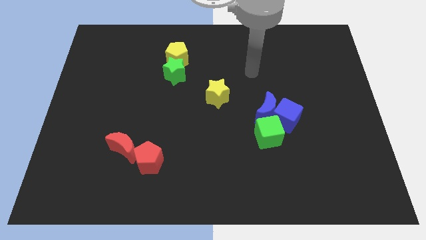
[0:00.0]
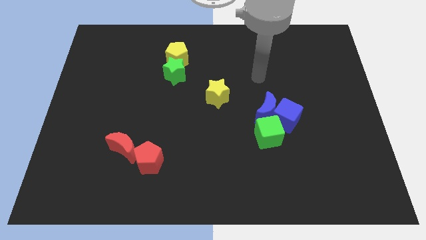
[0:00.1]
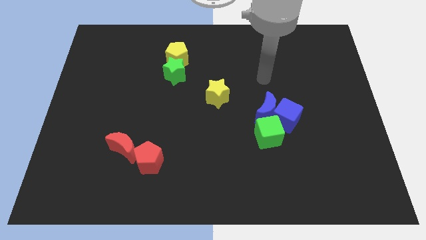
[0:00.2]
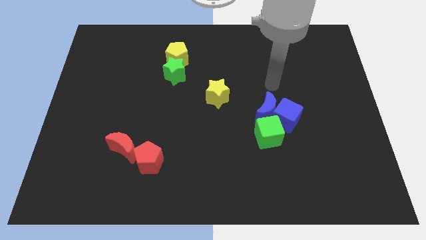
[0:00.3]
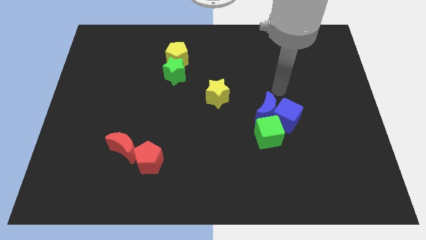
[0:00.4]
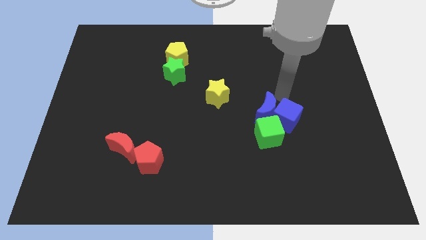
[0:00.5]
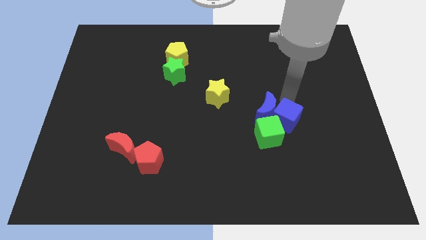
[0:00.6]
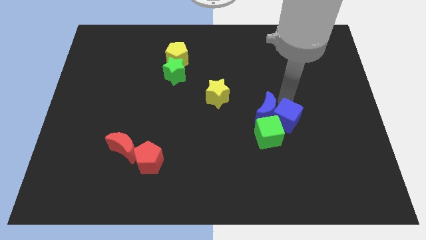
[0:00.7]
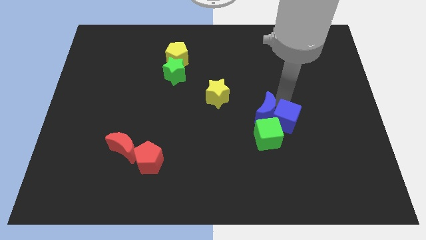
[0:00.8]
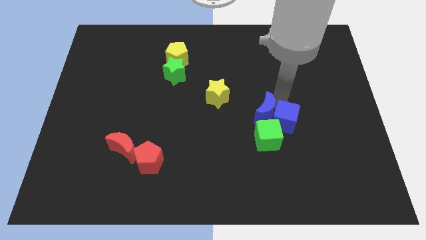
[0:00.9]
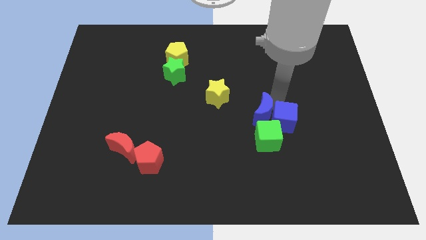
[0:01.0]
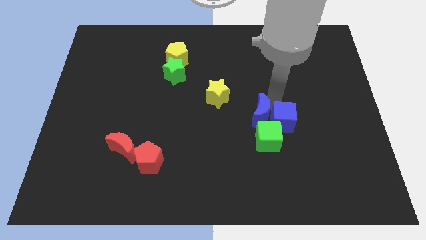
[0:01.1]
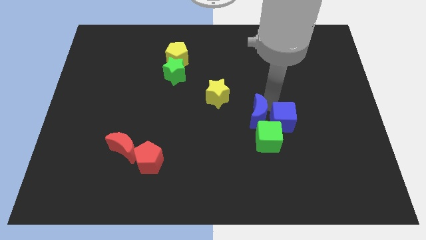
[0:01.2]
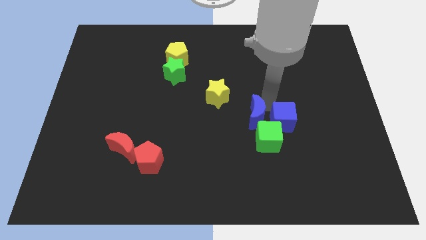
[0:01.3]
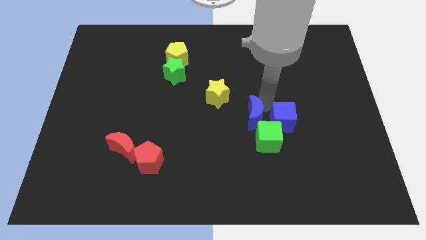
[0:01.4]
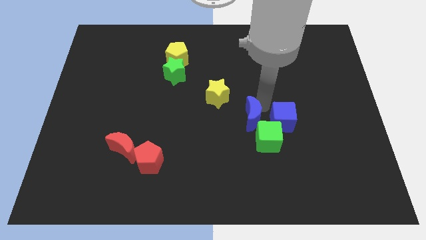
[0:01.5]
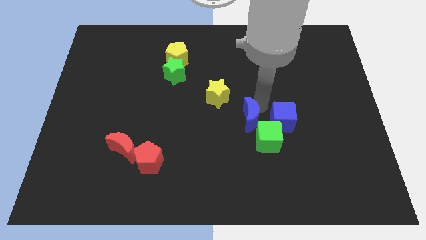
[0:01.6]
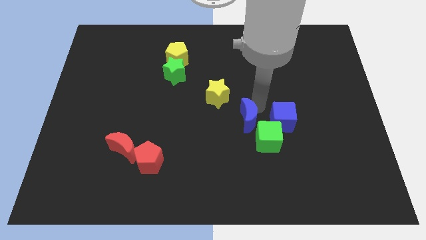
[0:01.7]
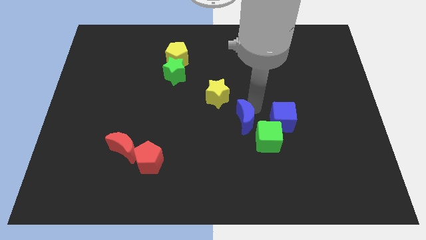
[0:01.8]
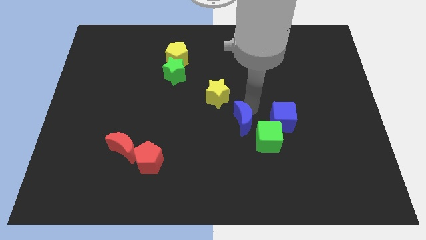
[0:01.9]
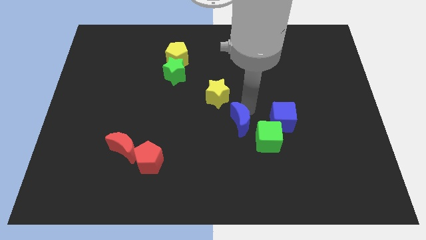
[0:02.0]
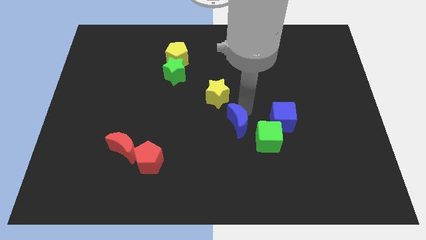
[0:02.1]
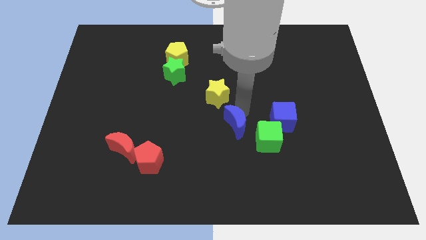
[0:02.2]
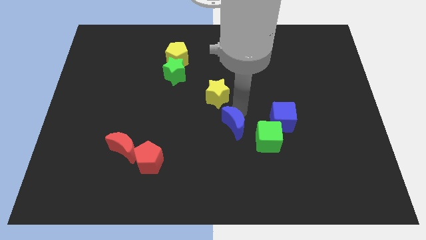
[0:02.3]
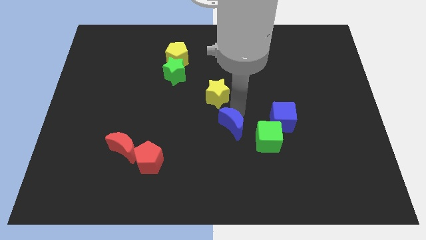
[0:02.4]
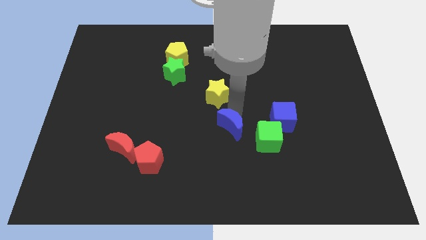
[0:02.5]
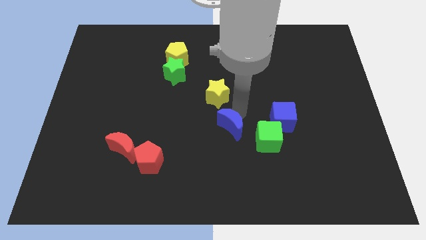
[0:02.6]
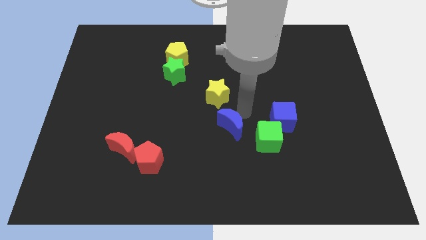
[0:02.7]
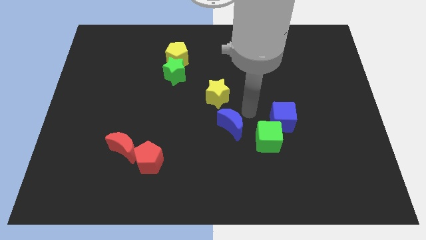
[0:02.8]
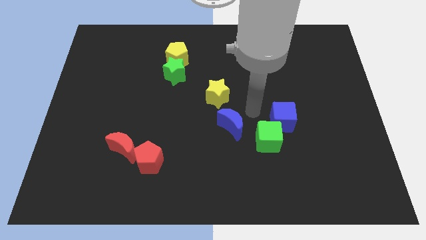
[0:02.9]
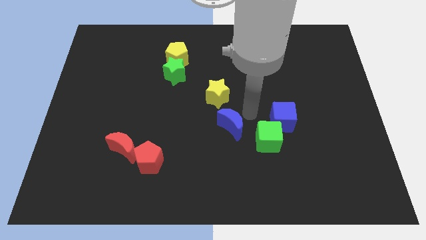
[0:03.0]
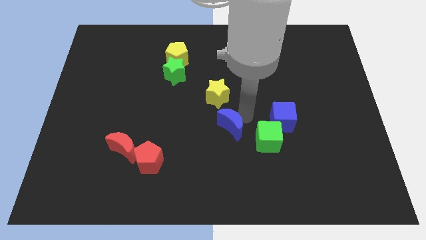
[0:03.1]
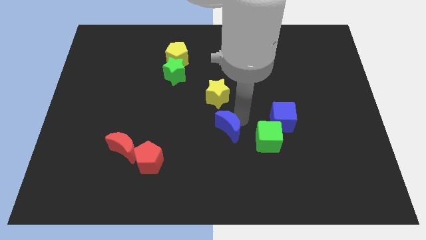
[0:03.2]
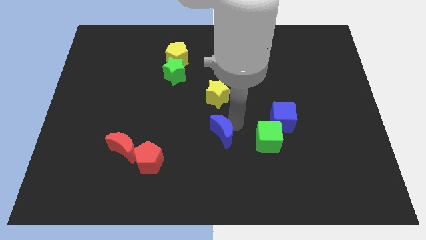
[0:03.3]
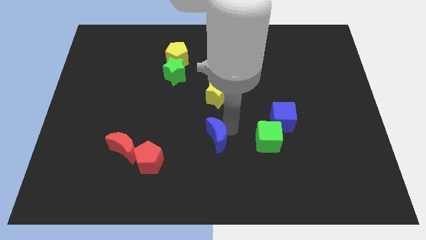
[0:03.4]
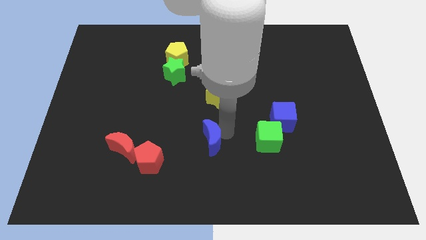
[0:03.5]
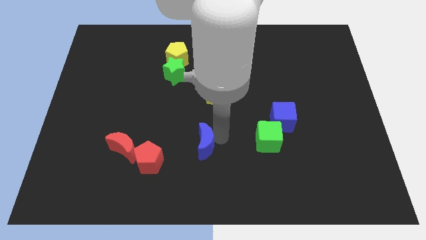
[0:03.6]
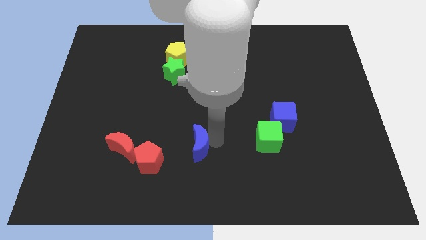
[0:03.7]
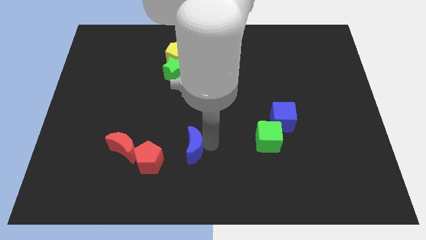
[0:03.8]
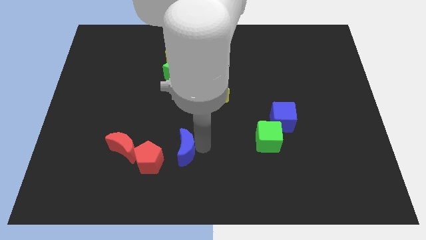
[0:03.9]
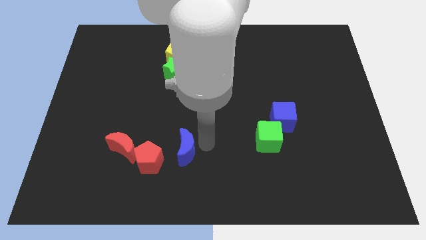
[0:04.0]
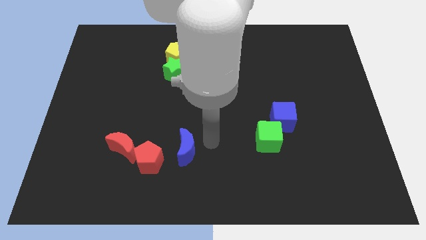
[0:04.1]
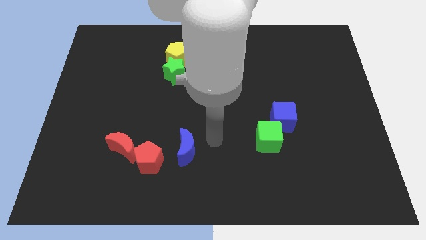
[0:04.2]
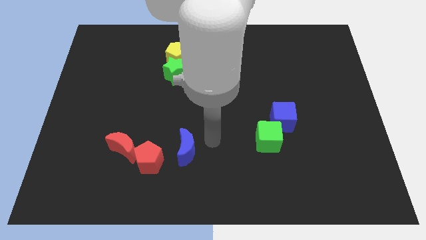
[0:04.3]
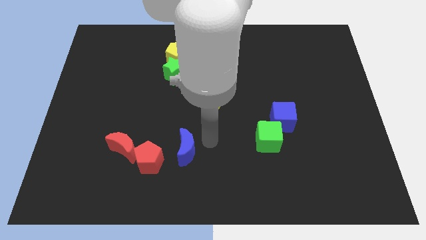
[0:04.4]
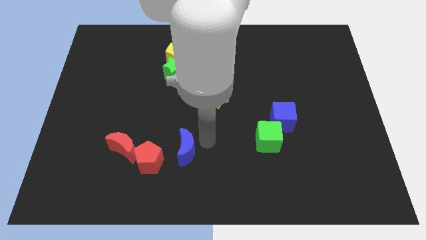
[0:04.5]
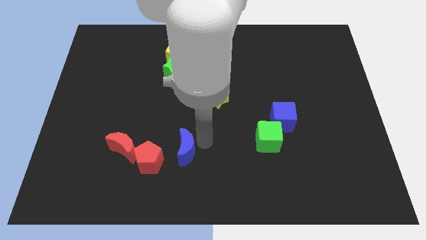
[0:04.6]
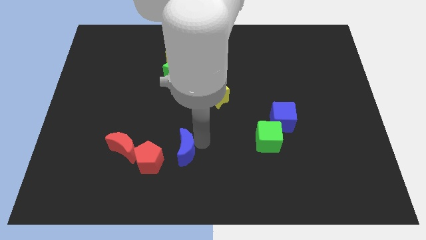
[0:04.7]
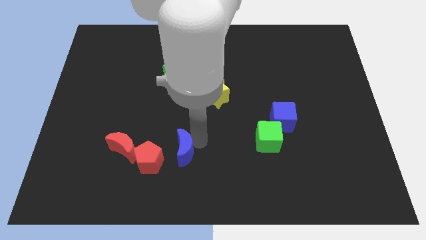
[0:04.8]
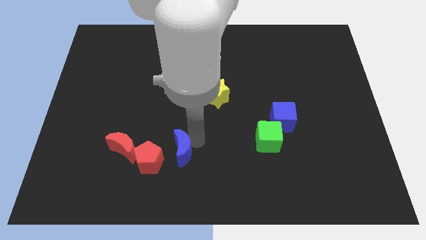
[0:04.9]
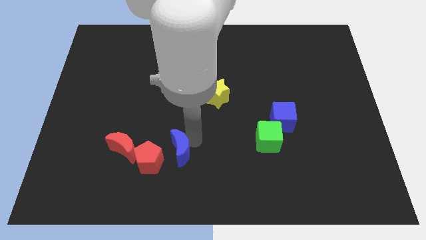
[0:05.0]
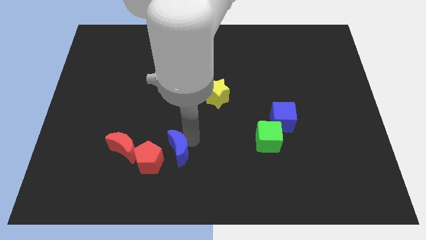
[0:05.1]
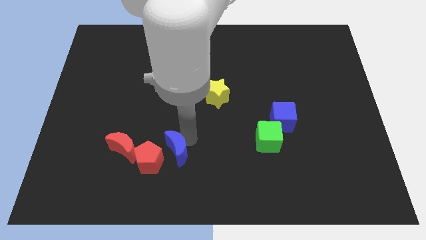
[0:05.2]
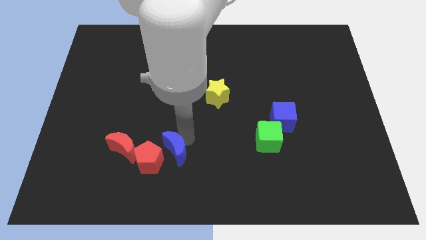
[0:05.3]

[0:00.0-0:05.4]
put the blue moon close to the red pentagon

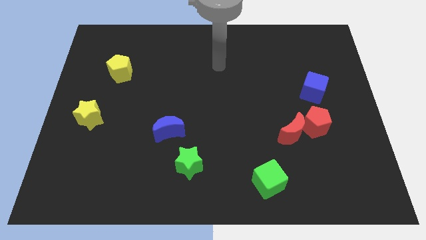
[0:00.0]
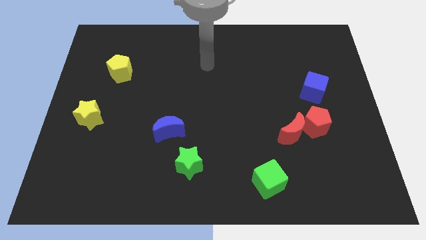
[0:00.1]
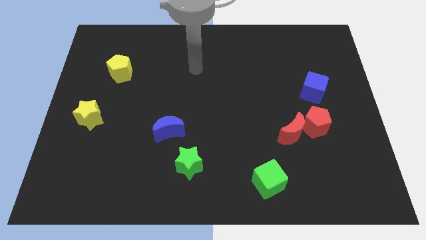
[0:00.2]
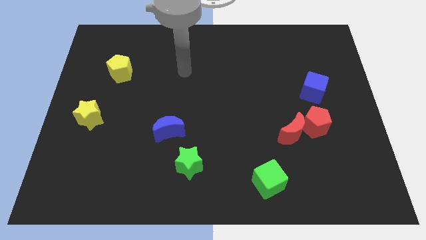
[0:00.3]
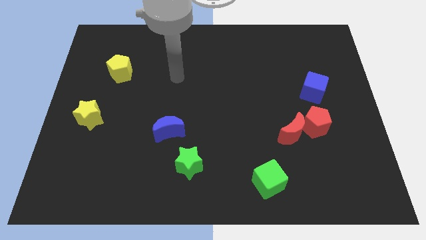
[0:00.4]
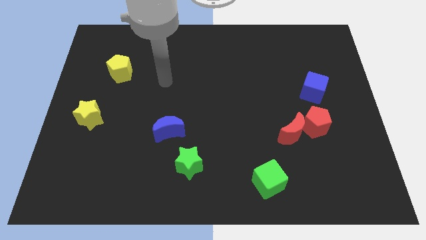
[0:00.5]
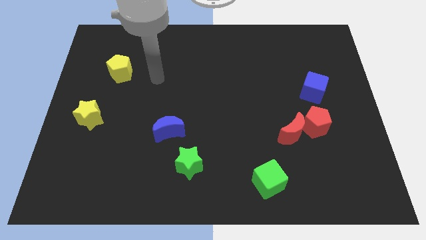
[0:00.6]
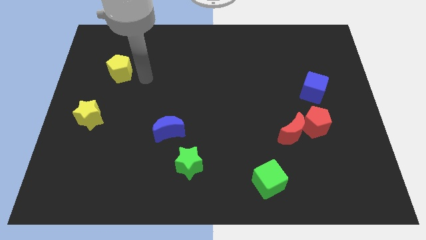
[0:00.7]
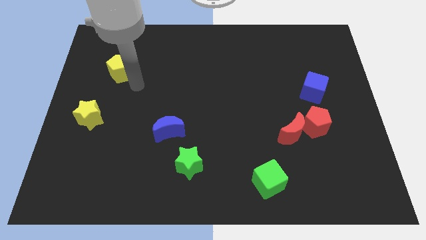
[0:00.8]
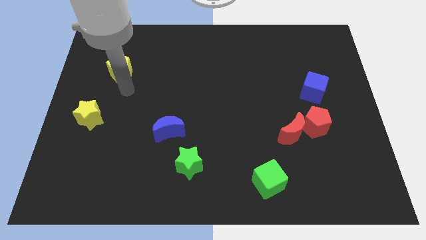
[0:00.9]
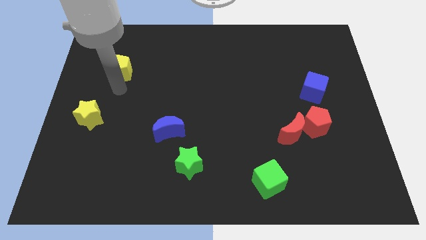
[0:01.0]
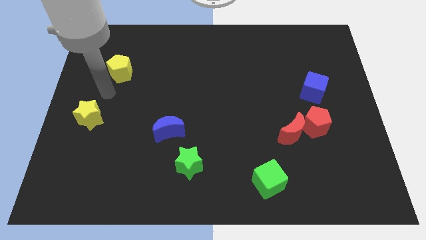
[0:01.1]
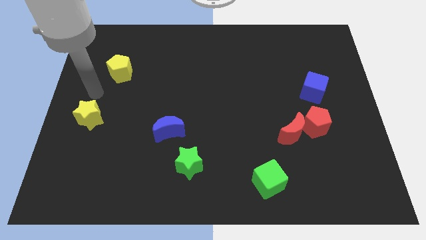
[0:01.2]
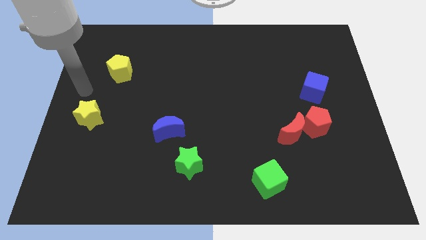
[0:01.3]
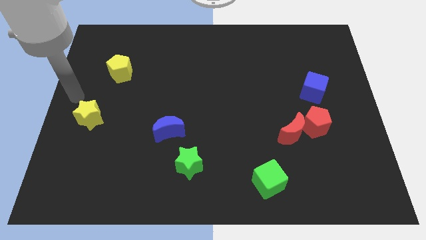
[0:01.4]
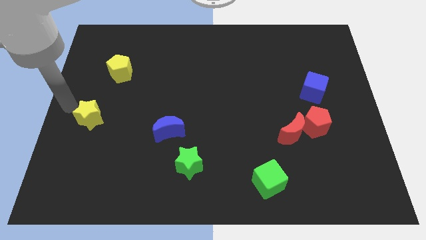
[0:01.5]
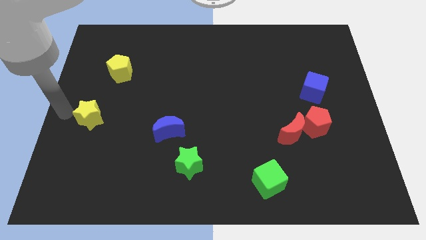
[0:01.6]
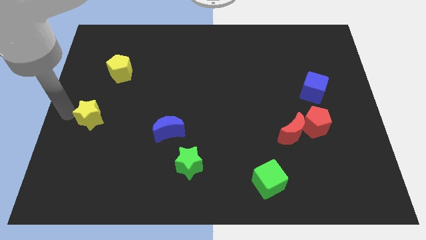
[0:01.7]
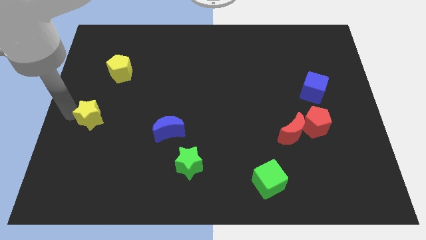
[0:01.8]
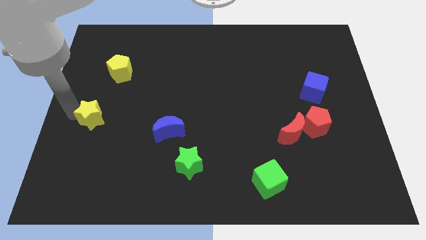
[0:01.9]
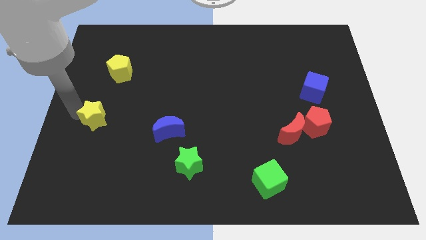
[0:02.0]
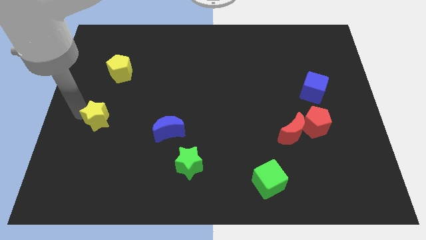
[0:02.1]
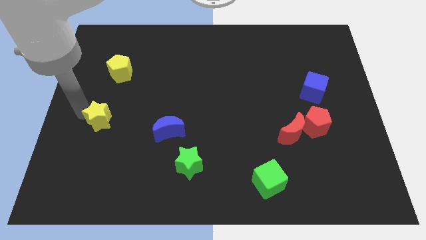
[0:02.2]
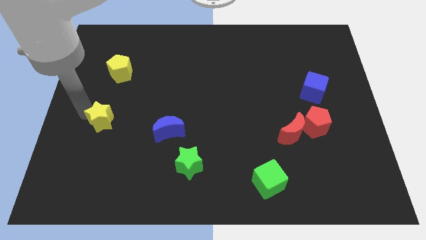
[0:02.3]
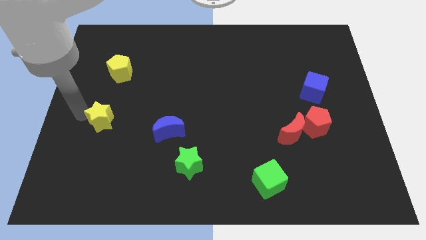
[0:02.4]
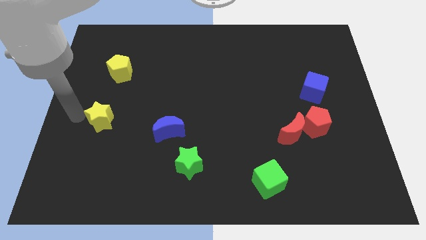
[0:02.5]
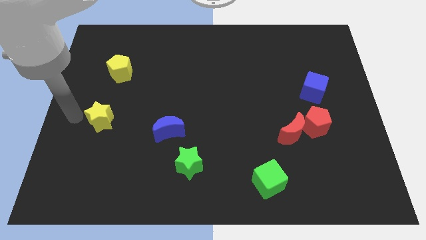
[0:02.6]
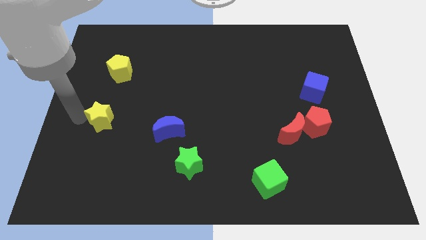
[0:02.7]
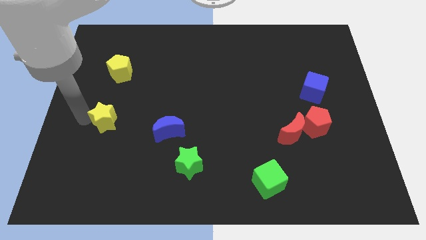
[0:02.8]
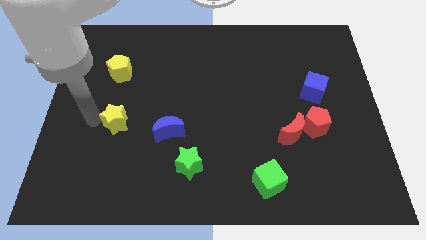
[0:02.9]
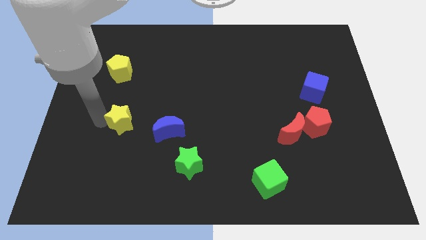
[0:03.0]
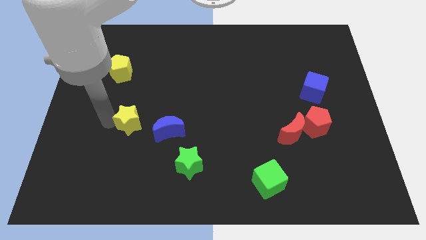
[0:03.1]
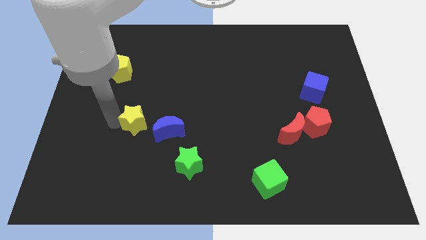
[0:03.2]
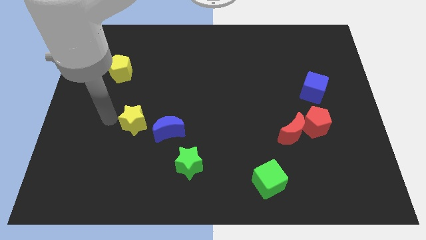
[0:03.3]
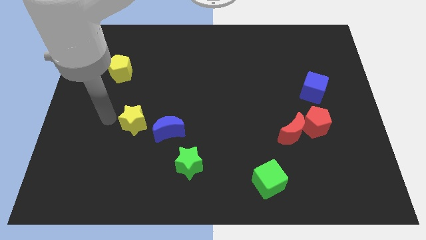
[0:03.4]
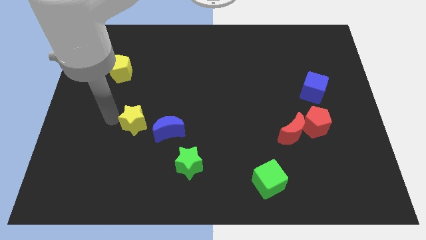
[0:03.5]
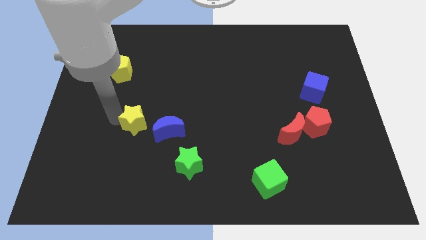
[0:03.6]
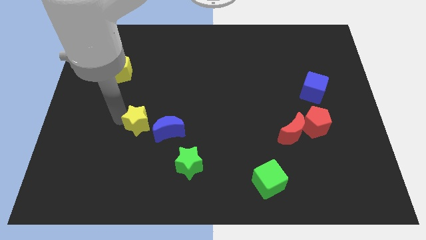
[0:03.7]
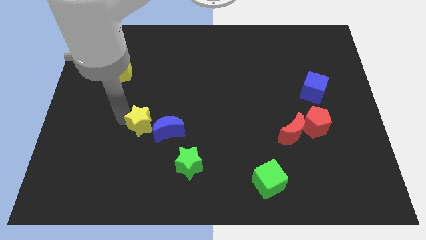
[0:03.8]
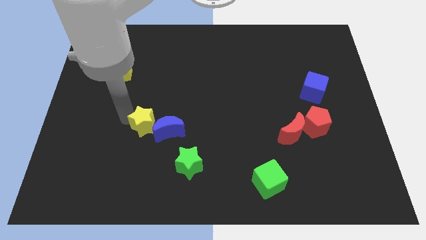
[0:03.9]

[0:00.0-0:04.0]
put the yellow star to the blue moon
